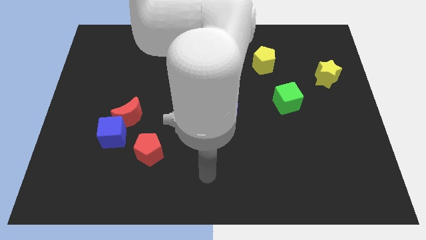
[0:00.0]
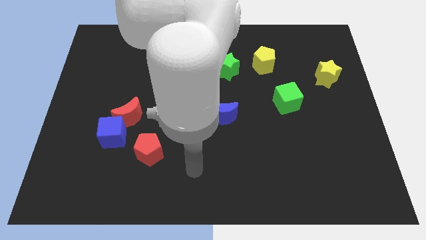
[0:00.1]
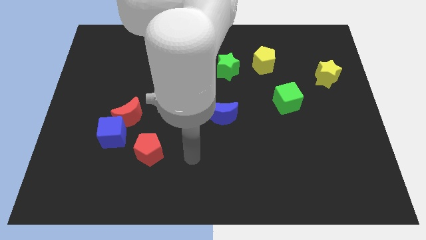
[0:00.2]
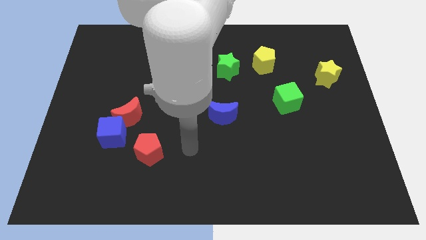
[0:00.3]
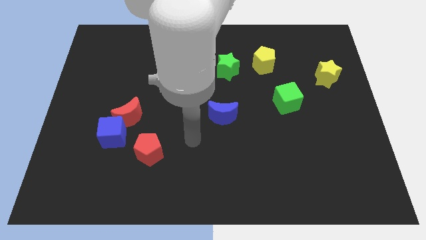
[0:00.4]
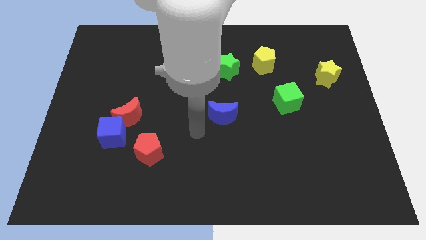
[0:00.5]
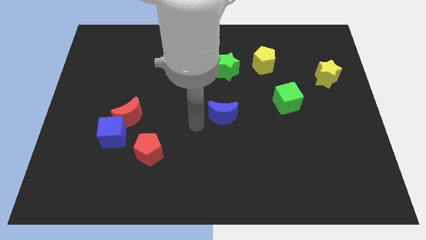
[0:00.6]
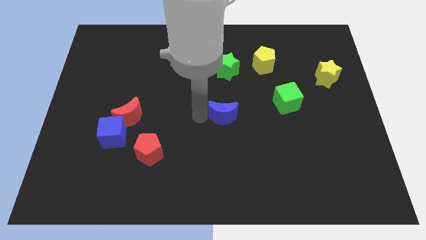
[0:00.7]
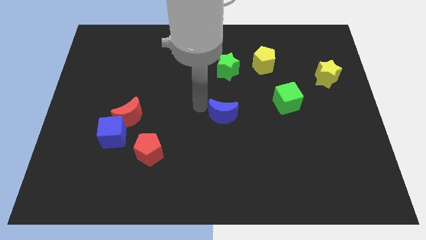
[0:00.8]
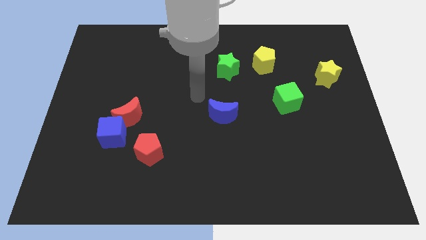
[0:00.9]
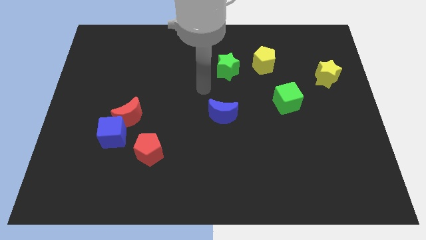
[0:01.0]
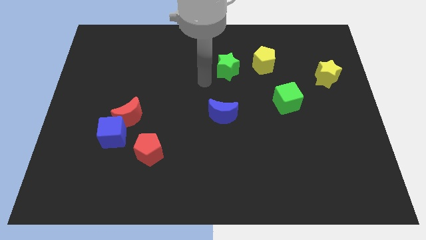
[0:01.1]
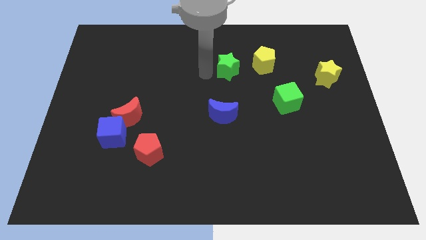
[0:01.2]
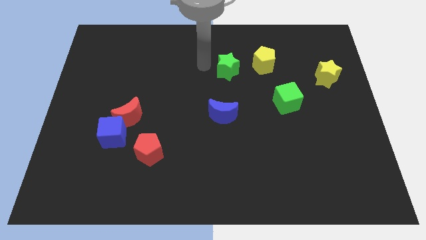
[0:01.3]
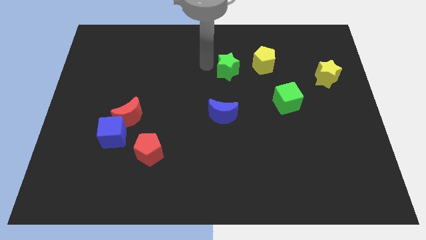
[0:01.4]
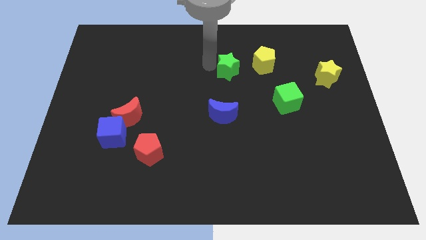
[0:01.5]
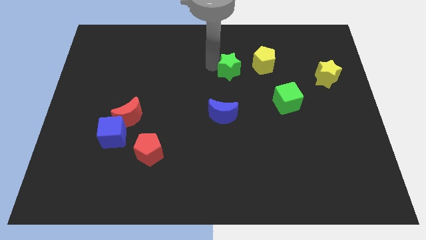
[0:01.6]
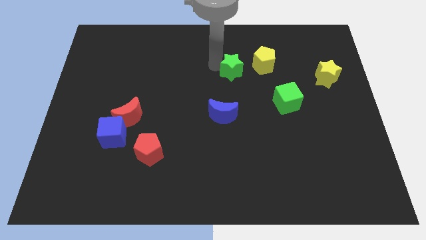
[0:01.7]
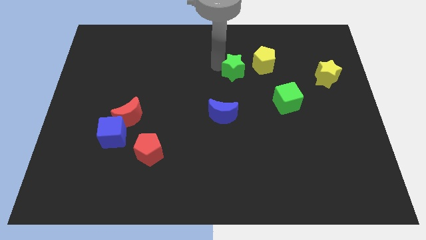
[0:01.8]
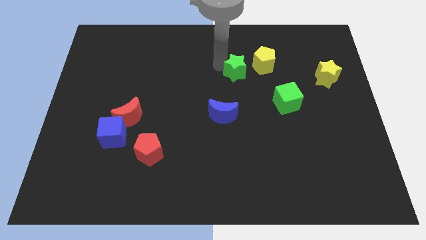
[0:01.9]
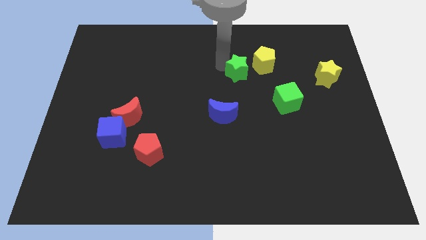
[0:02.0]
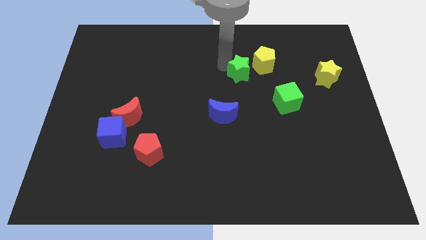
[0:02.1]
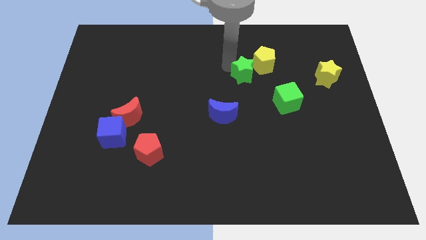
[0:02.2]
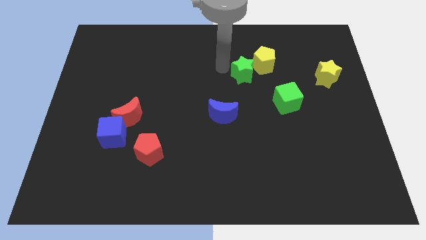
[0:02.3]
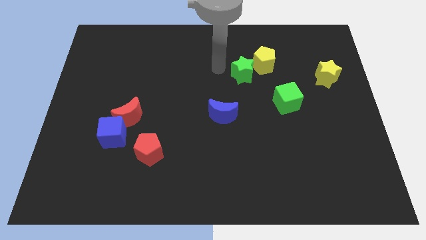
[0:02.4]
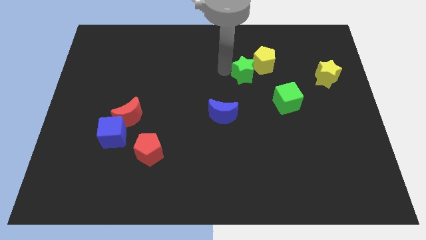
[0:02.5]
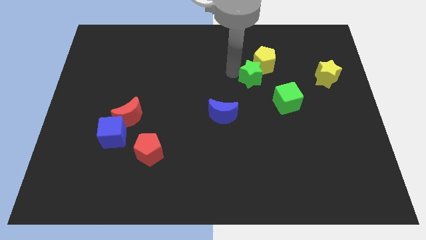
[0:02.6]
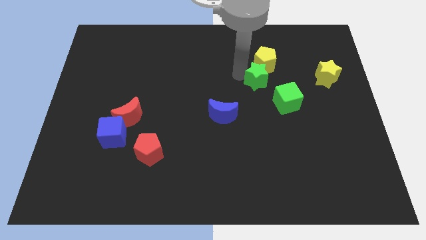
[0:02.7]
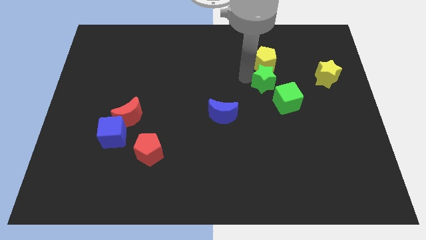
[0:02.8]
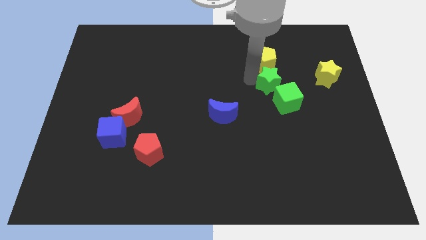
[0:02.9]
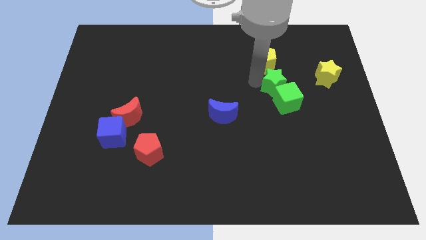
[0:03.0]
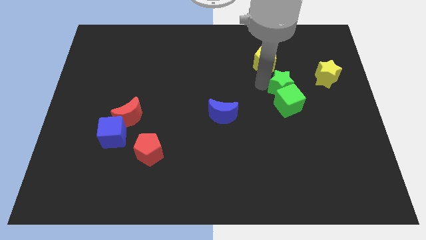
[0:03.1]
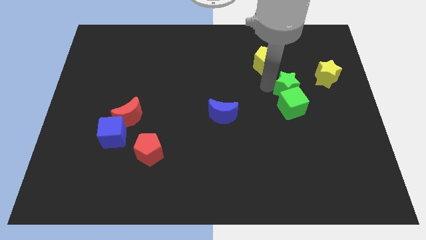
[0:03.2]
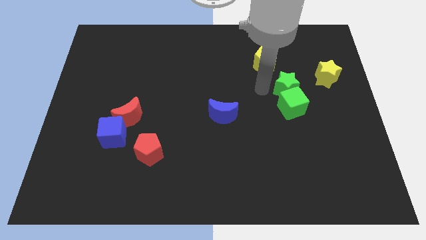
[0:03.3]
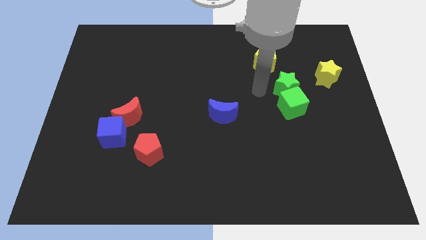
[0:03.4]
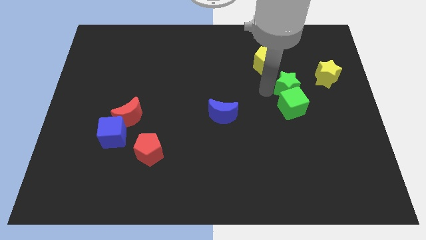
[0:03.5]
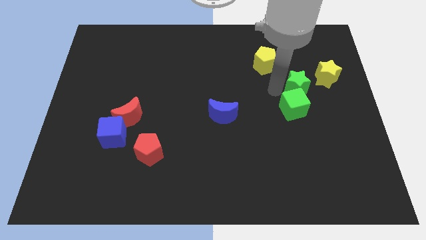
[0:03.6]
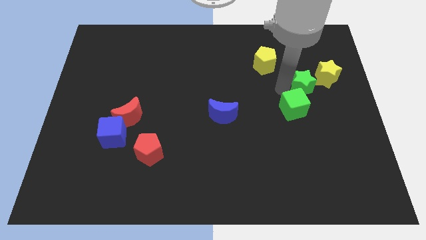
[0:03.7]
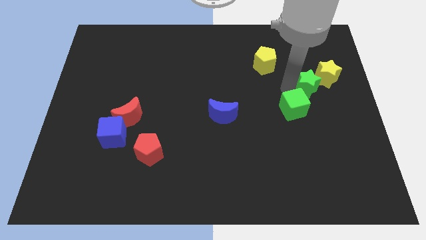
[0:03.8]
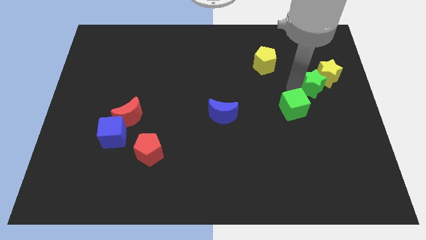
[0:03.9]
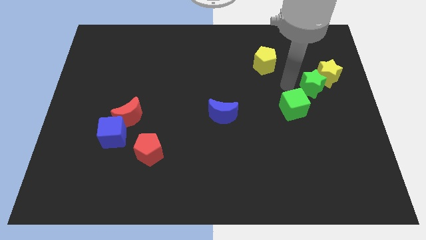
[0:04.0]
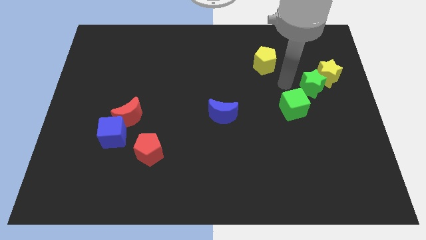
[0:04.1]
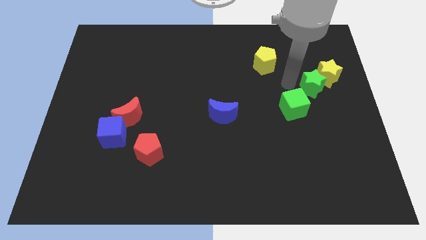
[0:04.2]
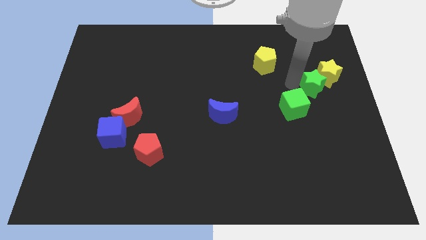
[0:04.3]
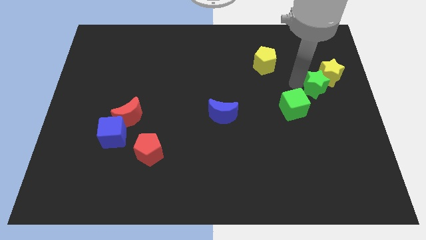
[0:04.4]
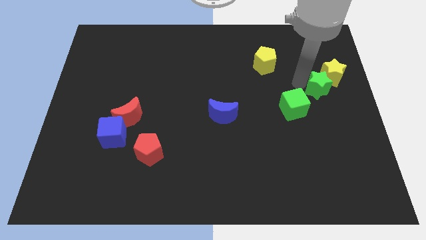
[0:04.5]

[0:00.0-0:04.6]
move the green star to the center right

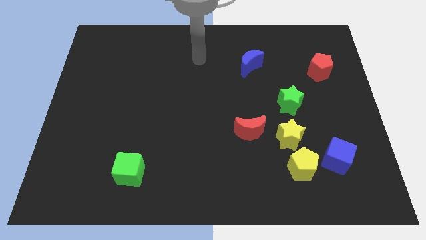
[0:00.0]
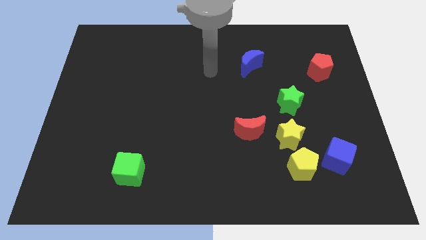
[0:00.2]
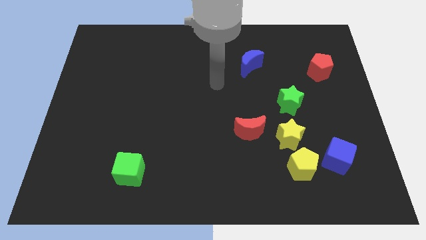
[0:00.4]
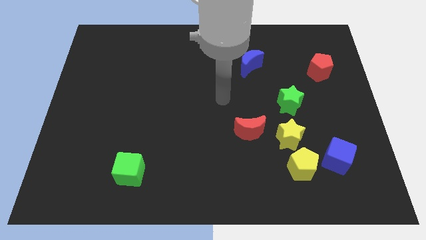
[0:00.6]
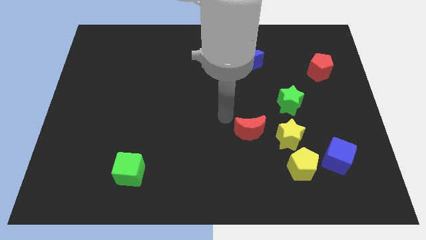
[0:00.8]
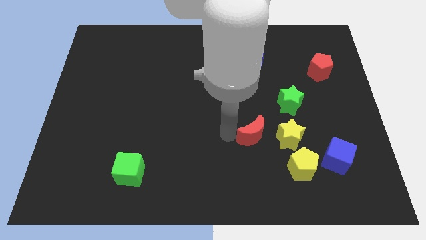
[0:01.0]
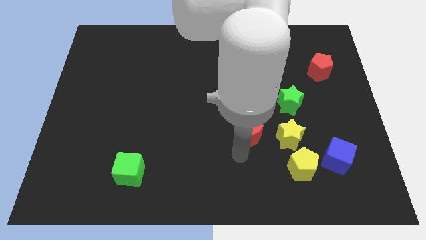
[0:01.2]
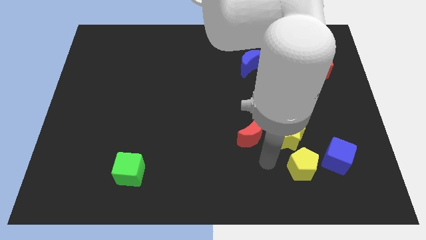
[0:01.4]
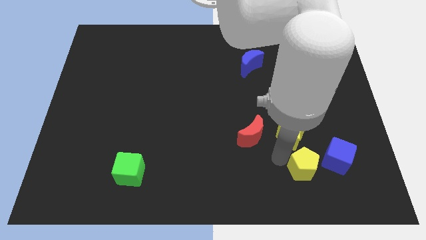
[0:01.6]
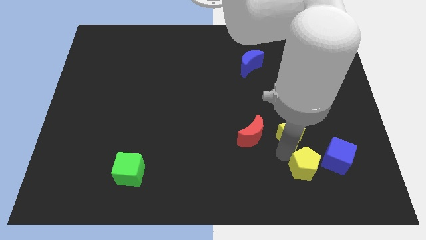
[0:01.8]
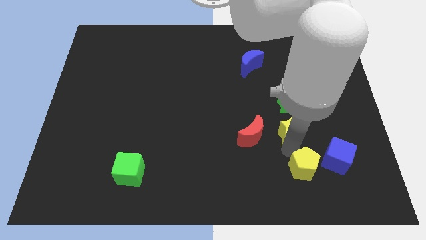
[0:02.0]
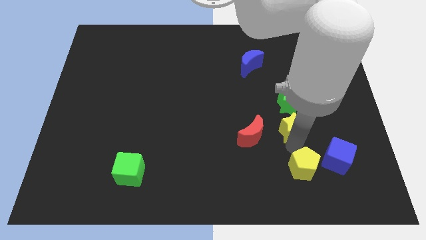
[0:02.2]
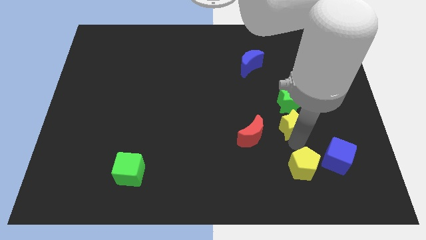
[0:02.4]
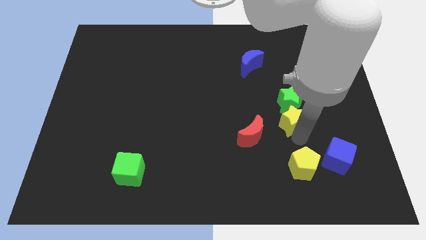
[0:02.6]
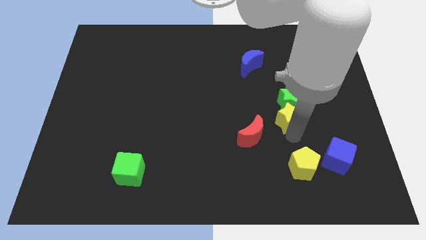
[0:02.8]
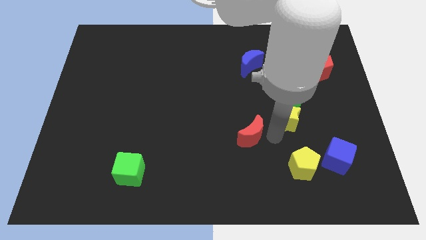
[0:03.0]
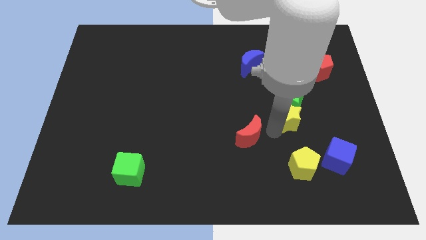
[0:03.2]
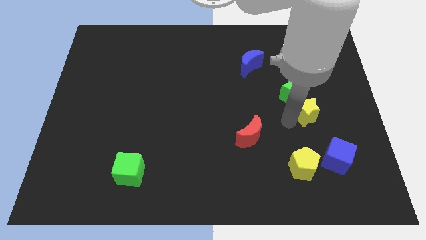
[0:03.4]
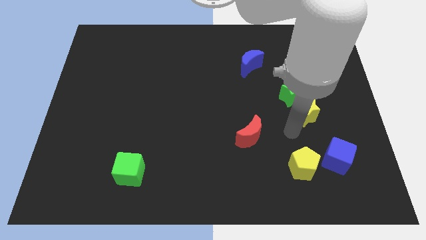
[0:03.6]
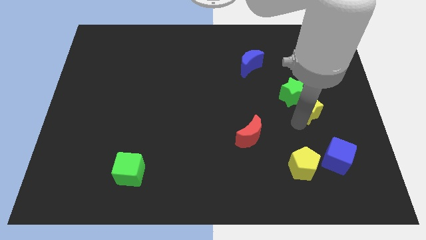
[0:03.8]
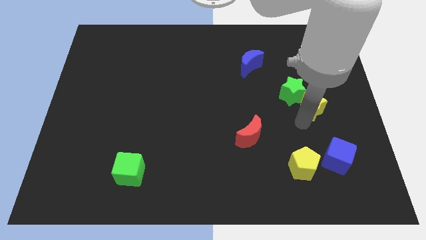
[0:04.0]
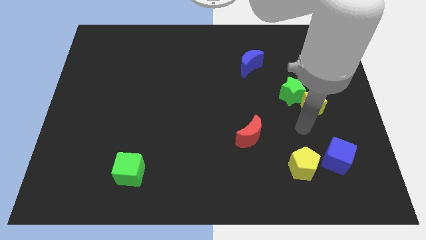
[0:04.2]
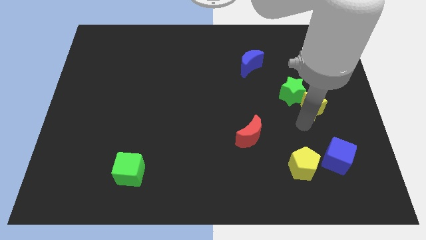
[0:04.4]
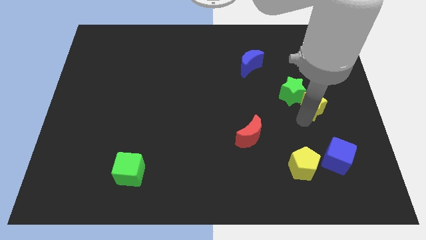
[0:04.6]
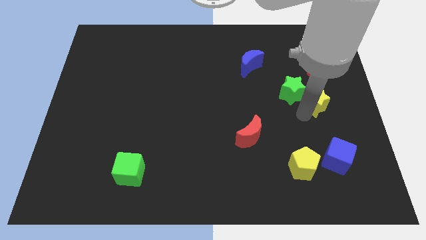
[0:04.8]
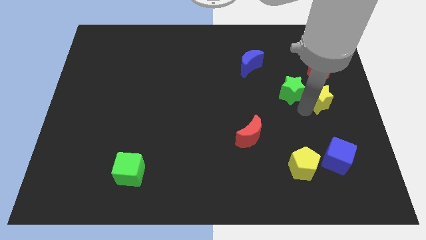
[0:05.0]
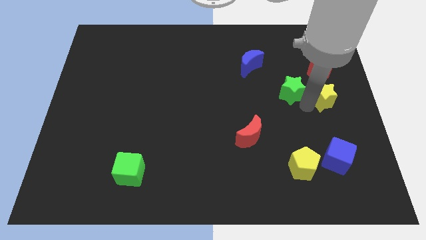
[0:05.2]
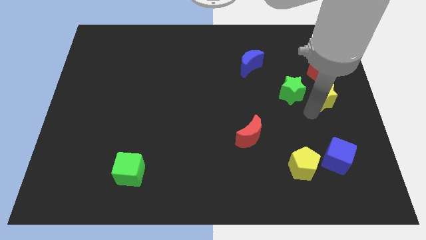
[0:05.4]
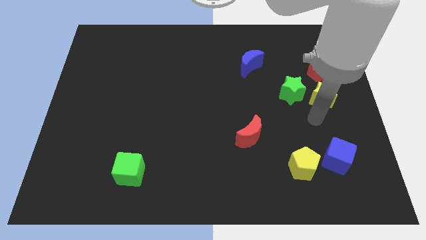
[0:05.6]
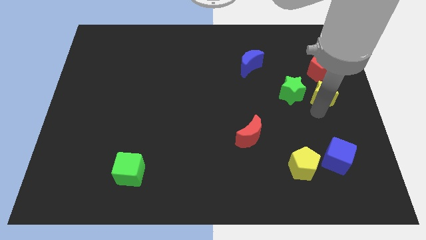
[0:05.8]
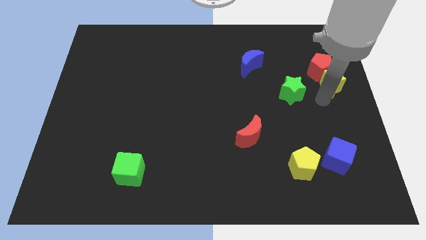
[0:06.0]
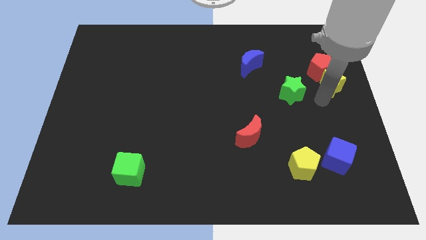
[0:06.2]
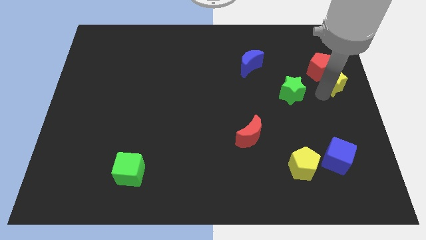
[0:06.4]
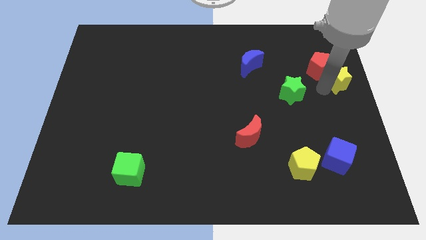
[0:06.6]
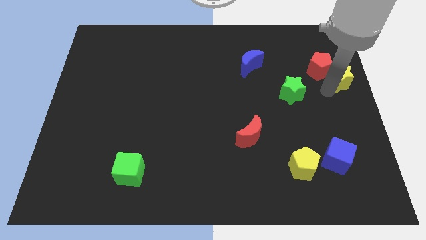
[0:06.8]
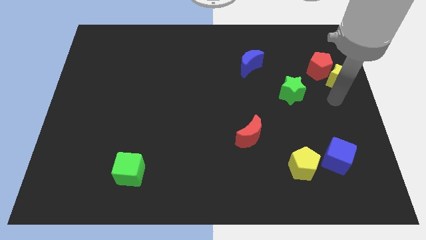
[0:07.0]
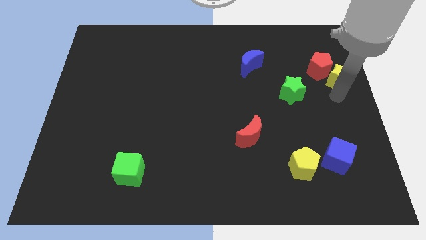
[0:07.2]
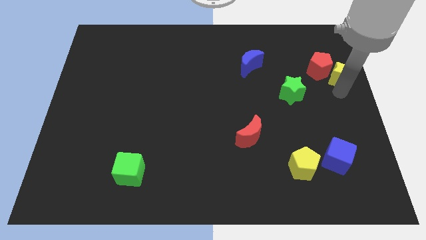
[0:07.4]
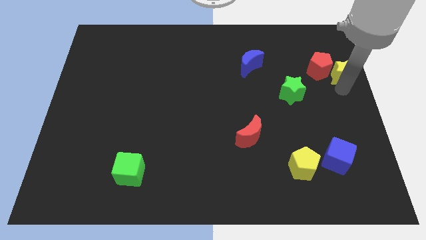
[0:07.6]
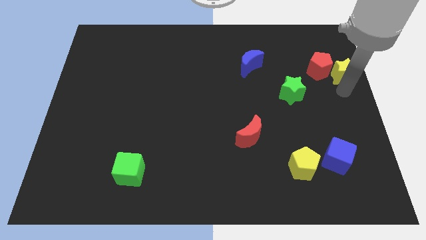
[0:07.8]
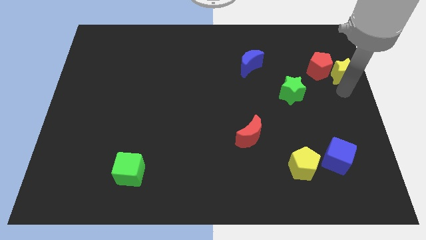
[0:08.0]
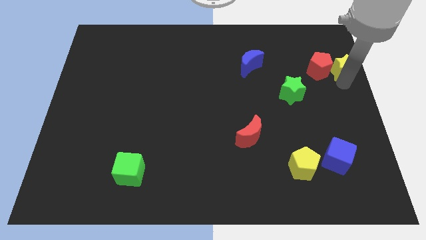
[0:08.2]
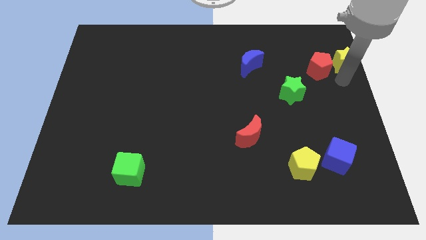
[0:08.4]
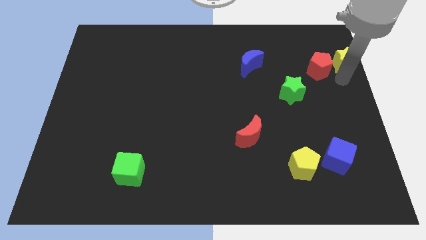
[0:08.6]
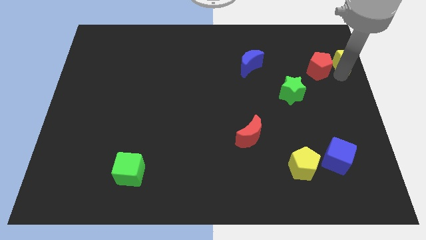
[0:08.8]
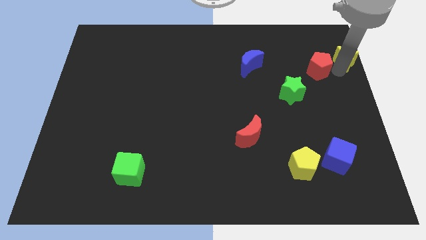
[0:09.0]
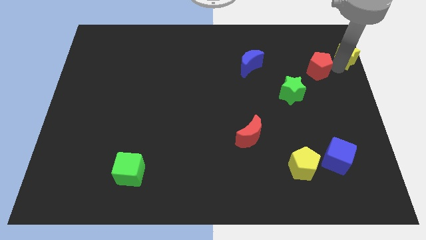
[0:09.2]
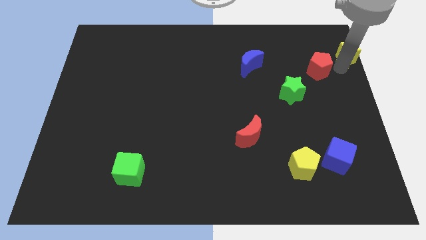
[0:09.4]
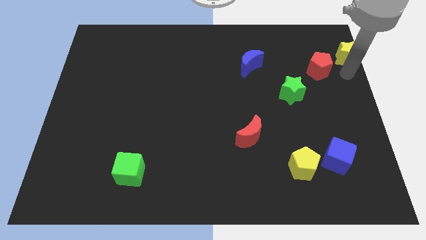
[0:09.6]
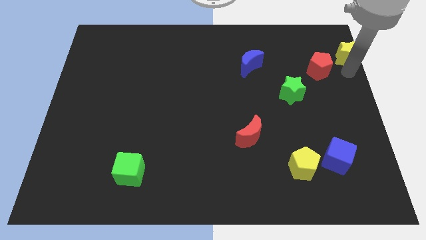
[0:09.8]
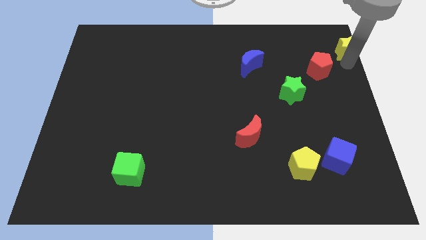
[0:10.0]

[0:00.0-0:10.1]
move the yellow star to the top right of the board
